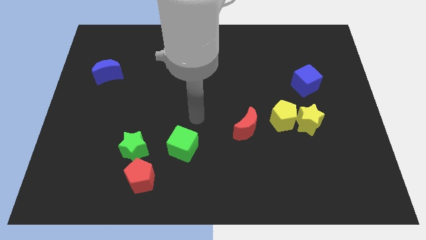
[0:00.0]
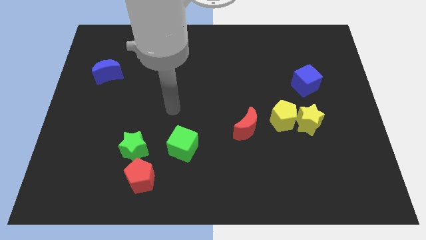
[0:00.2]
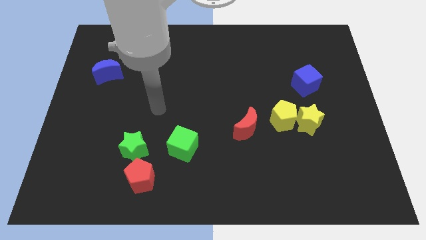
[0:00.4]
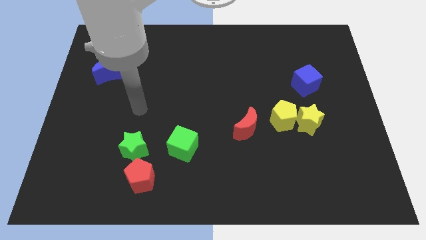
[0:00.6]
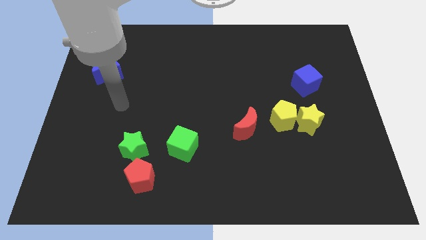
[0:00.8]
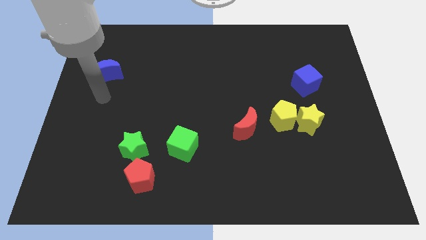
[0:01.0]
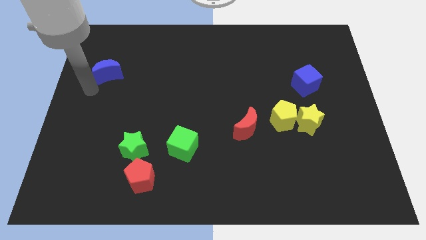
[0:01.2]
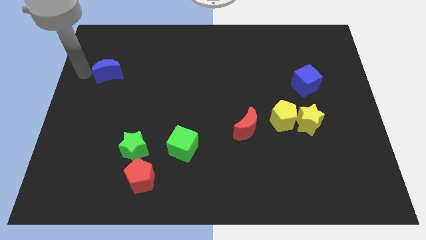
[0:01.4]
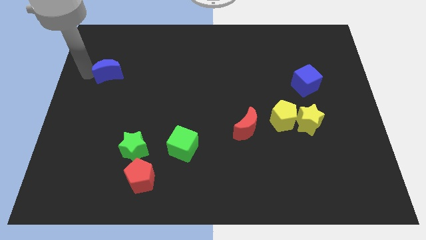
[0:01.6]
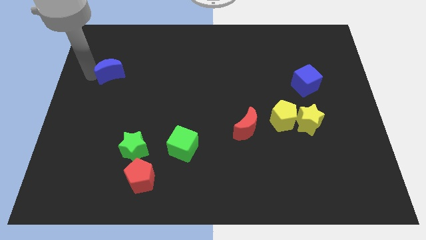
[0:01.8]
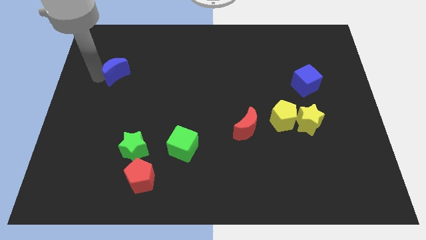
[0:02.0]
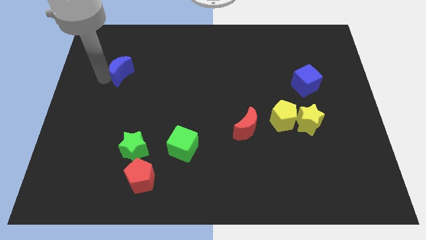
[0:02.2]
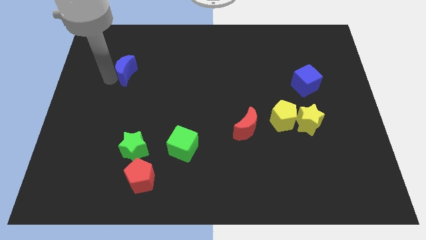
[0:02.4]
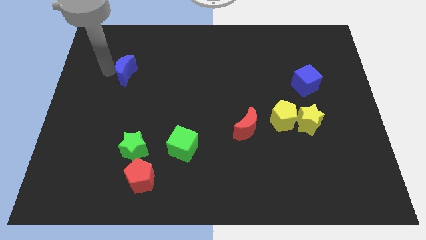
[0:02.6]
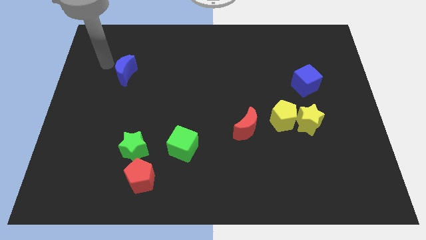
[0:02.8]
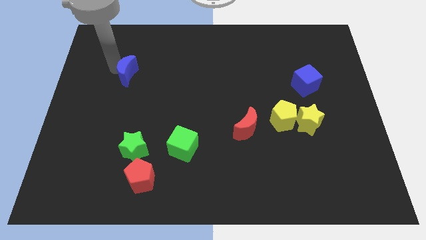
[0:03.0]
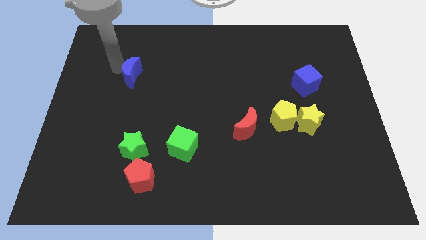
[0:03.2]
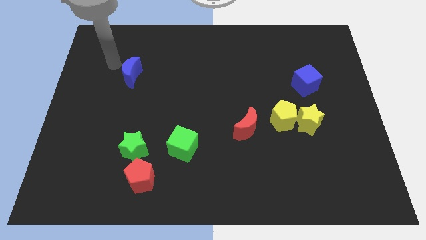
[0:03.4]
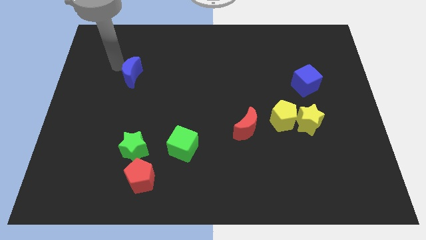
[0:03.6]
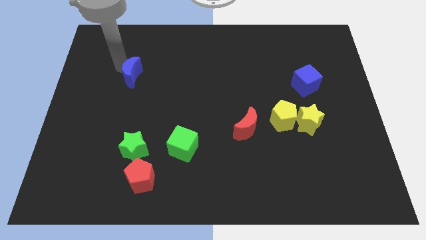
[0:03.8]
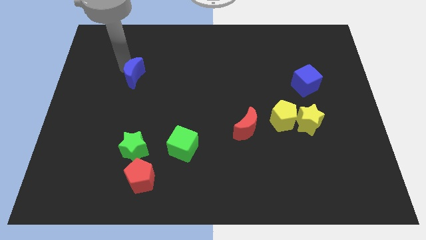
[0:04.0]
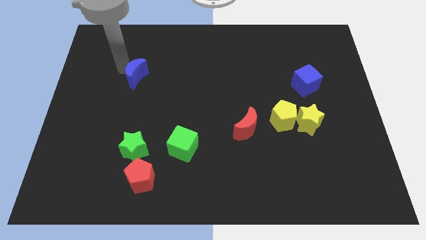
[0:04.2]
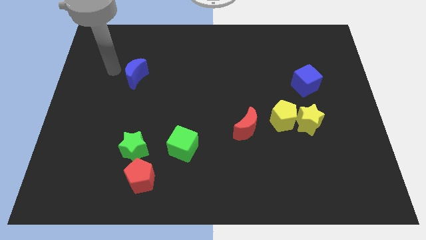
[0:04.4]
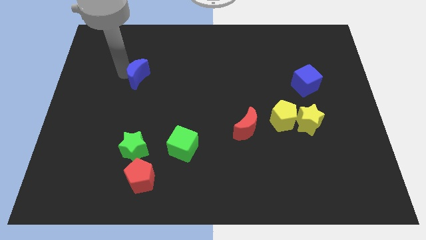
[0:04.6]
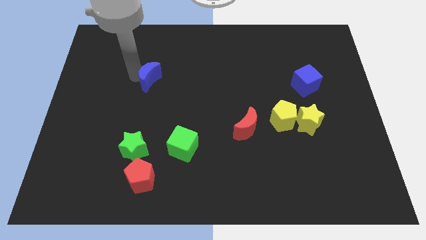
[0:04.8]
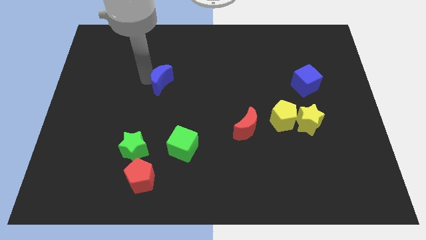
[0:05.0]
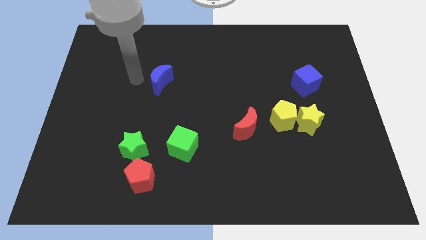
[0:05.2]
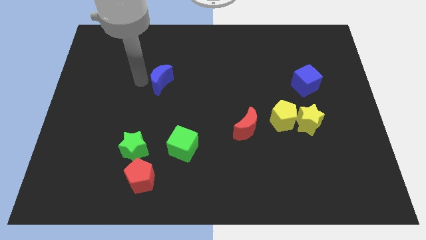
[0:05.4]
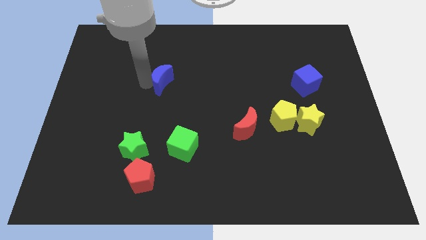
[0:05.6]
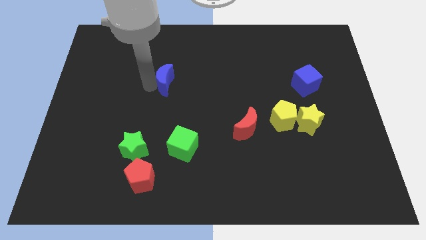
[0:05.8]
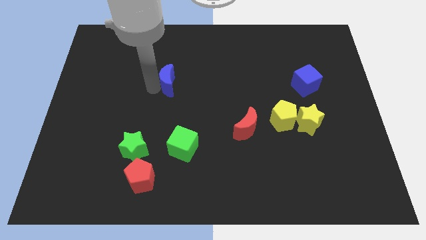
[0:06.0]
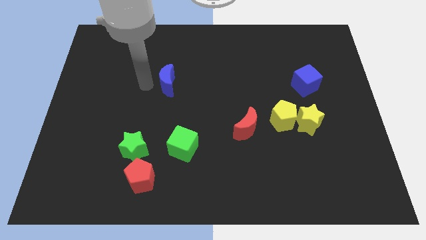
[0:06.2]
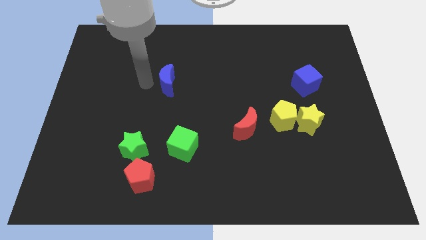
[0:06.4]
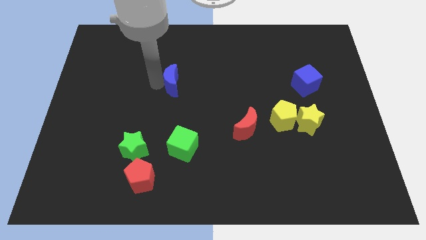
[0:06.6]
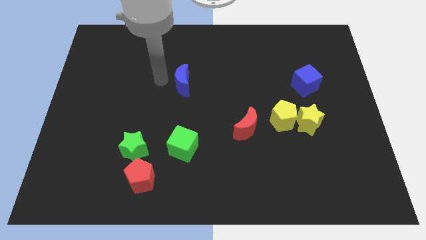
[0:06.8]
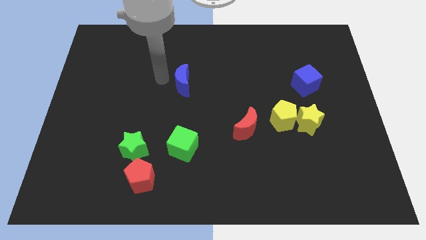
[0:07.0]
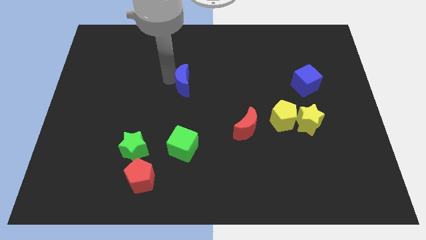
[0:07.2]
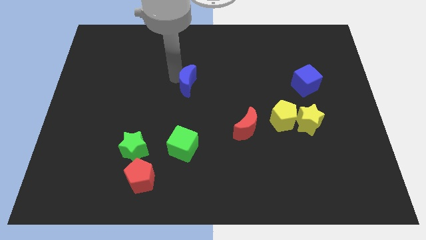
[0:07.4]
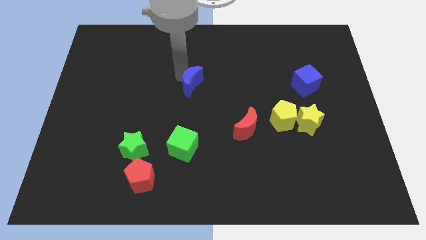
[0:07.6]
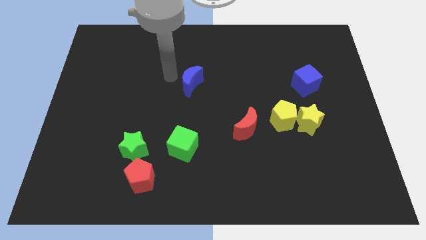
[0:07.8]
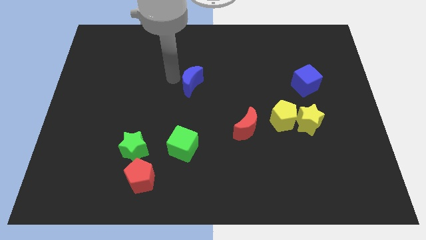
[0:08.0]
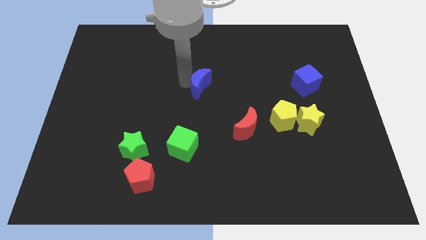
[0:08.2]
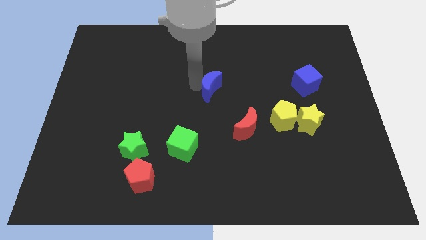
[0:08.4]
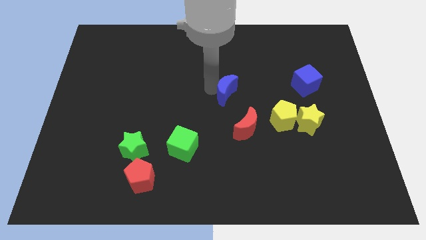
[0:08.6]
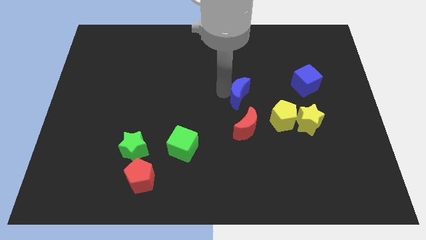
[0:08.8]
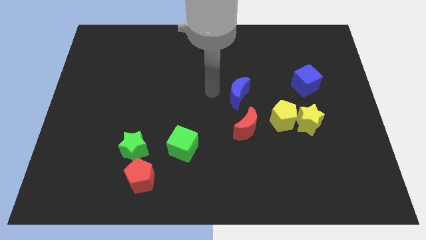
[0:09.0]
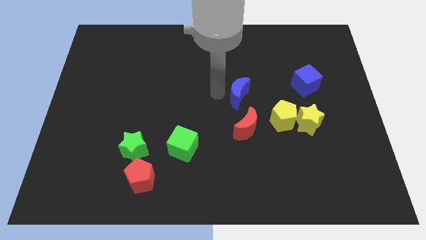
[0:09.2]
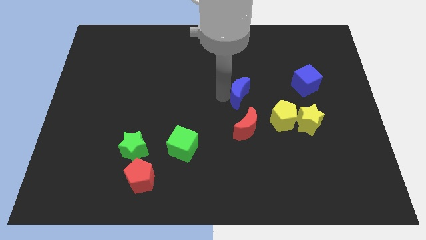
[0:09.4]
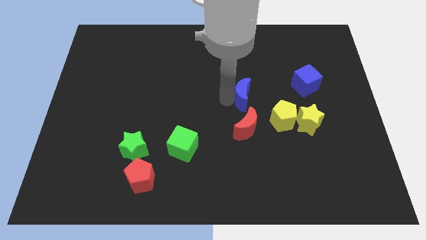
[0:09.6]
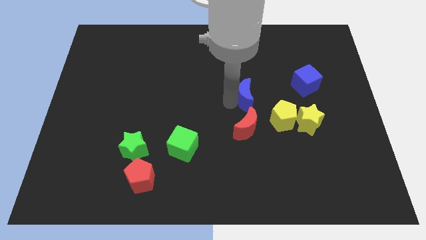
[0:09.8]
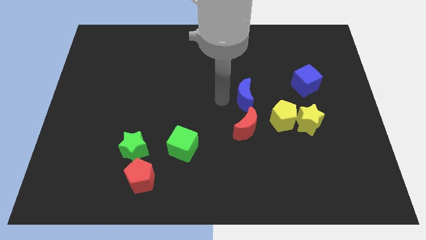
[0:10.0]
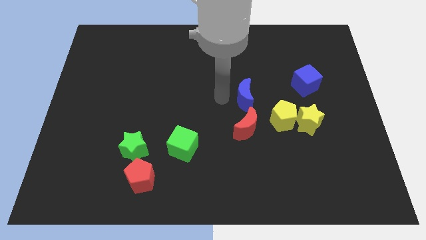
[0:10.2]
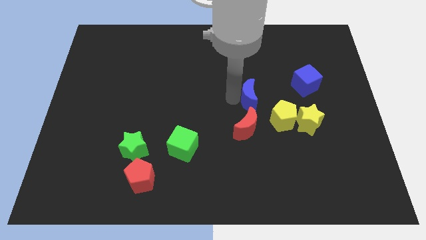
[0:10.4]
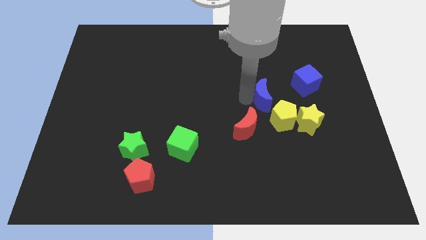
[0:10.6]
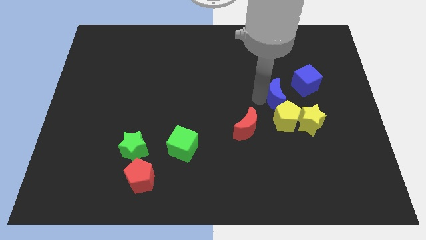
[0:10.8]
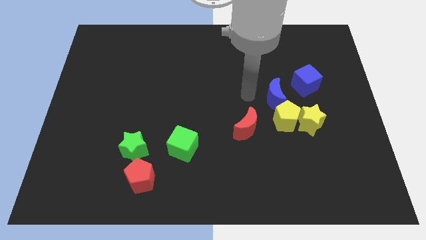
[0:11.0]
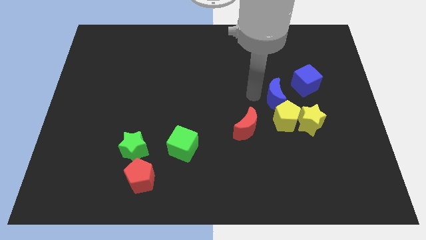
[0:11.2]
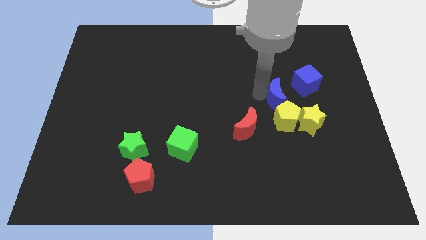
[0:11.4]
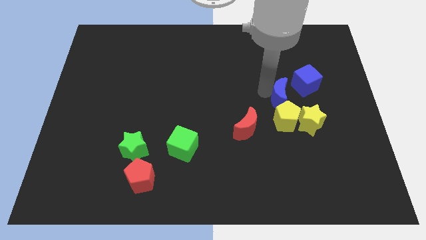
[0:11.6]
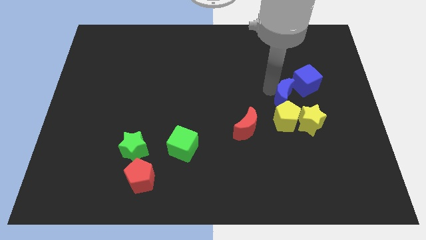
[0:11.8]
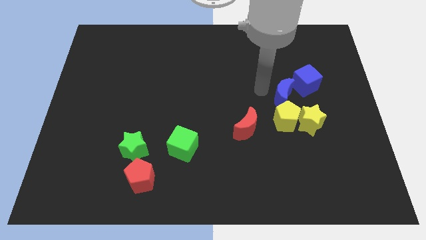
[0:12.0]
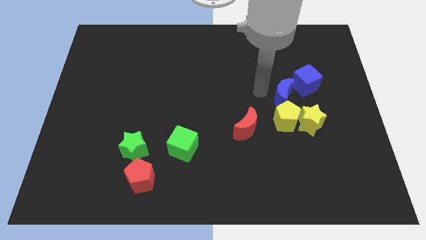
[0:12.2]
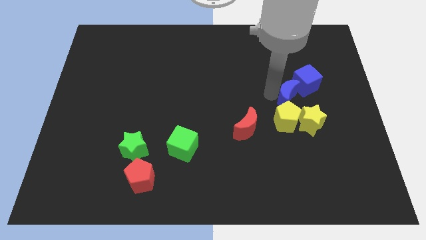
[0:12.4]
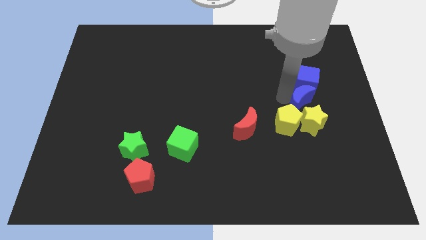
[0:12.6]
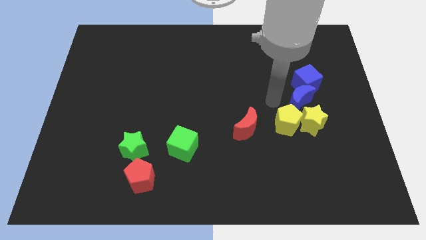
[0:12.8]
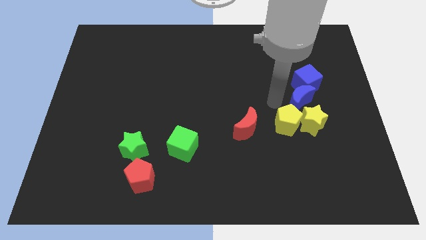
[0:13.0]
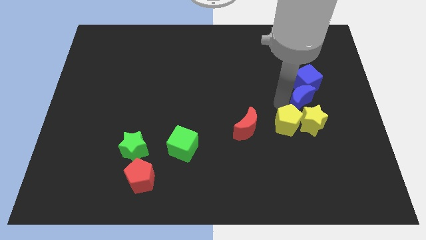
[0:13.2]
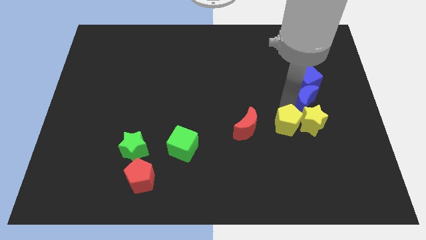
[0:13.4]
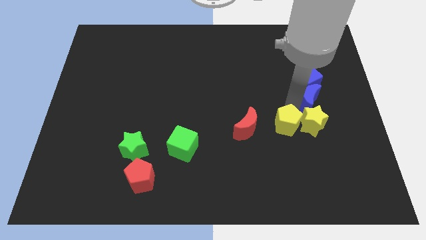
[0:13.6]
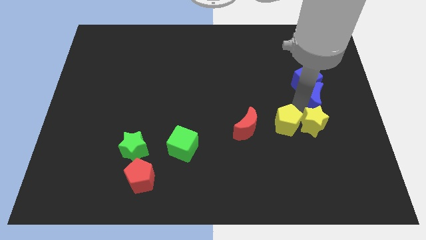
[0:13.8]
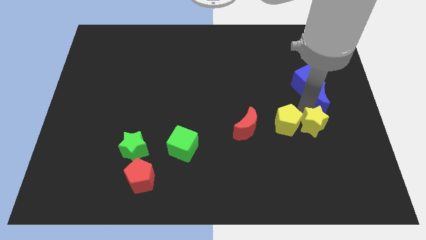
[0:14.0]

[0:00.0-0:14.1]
slide the blue moon to the right side
